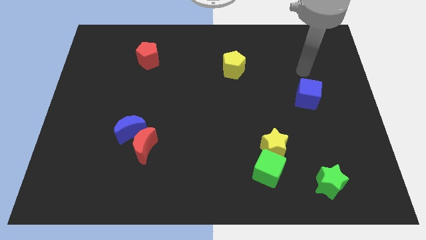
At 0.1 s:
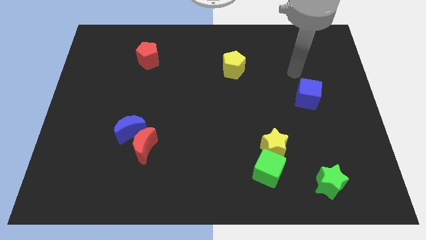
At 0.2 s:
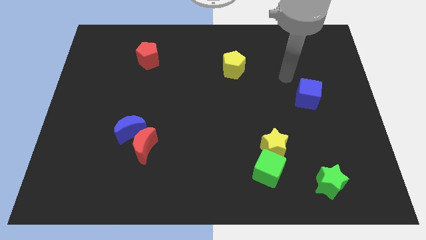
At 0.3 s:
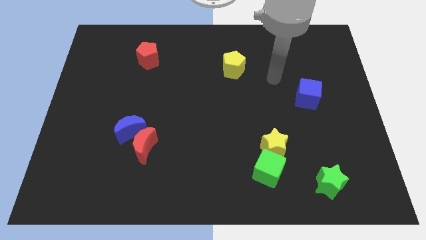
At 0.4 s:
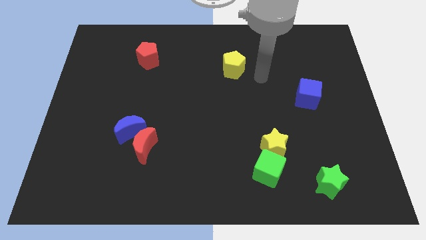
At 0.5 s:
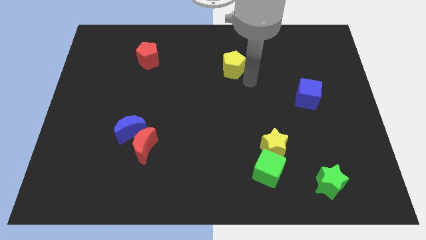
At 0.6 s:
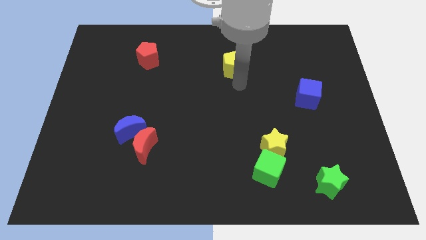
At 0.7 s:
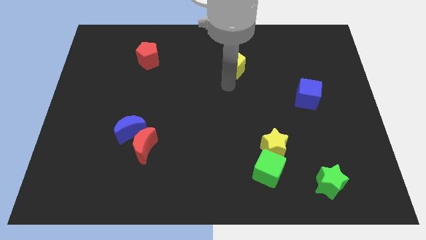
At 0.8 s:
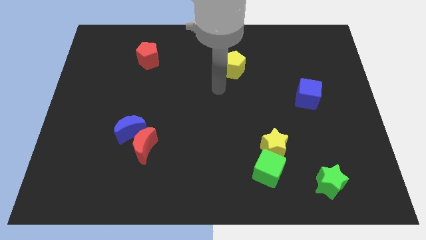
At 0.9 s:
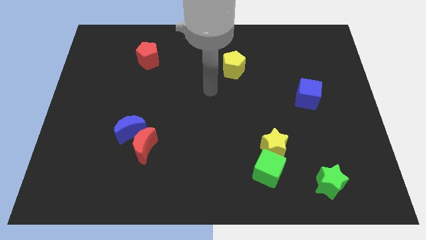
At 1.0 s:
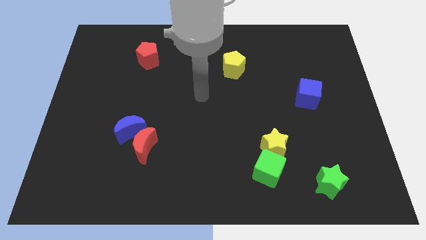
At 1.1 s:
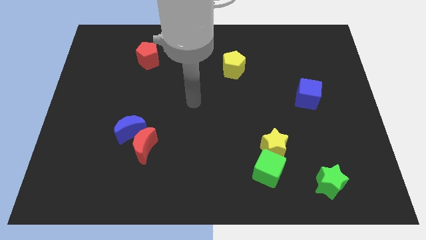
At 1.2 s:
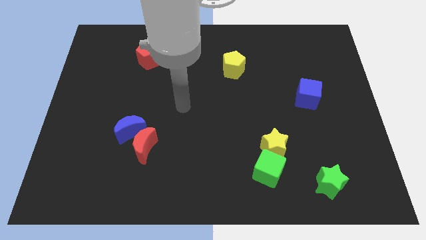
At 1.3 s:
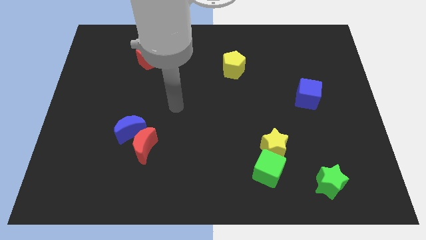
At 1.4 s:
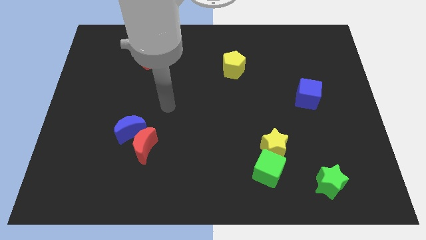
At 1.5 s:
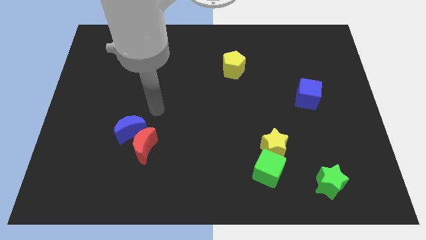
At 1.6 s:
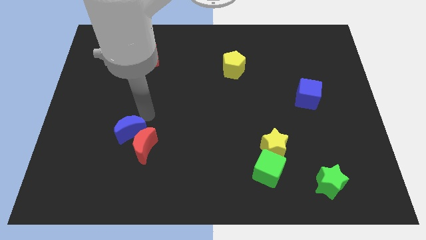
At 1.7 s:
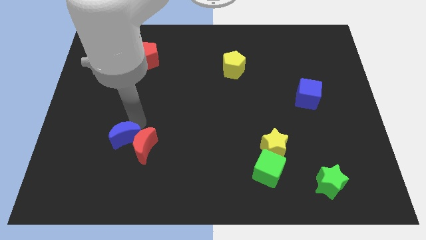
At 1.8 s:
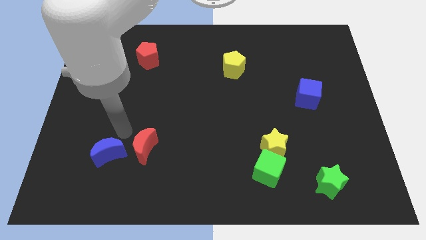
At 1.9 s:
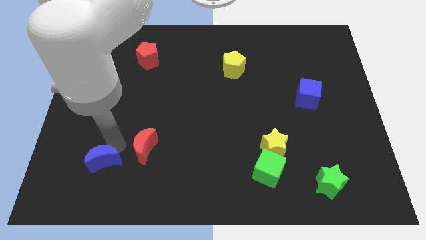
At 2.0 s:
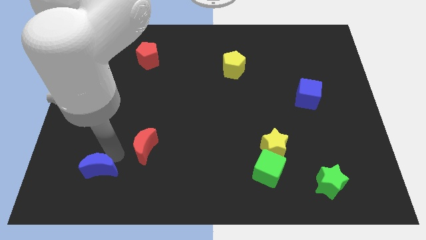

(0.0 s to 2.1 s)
pull the red moon apart from the blue moon

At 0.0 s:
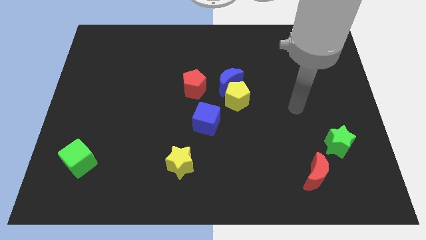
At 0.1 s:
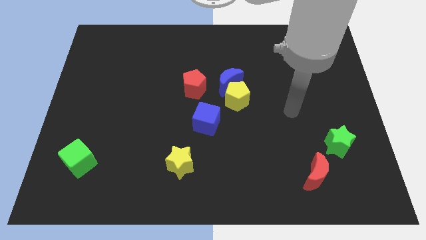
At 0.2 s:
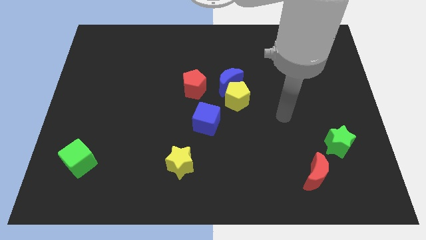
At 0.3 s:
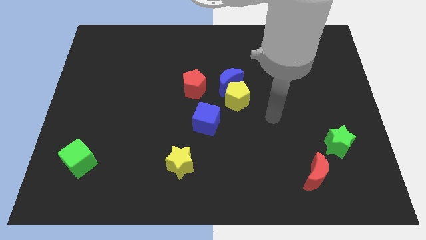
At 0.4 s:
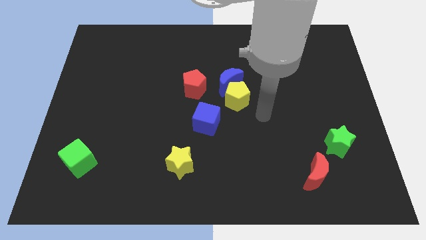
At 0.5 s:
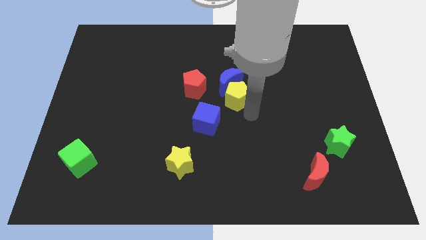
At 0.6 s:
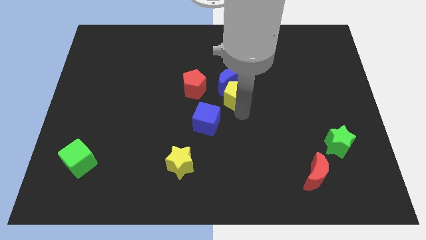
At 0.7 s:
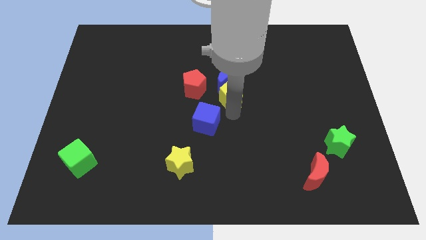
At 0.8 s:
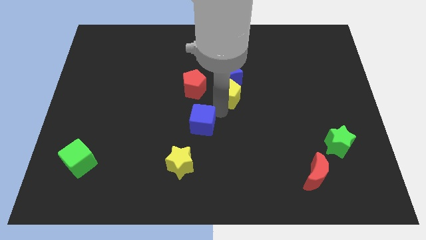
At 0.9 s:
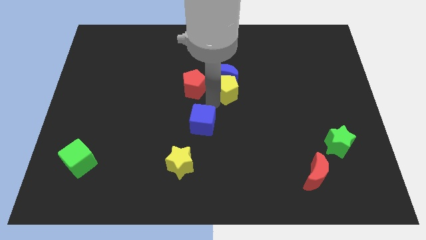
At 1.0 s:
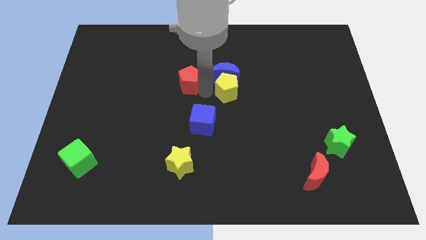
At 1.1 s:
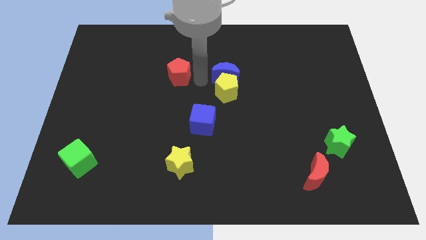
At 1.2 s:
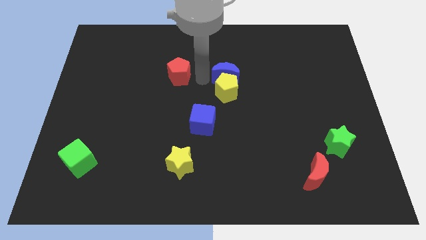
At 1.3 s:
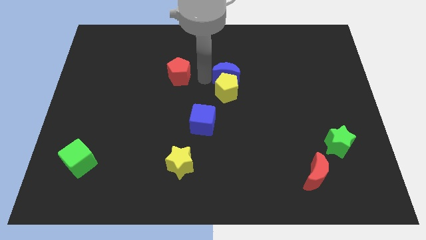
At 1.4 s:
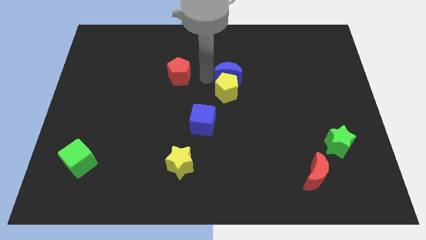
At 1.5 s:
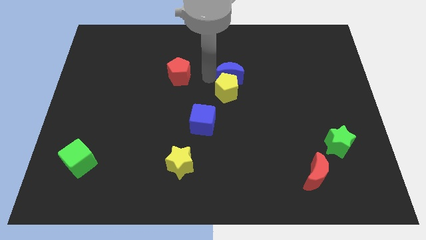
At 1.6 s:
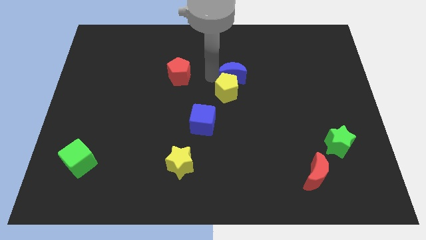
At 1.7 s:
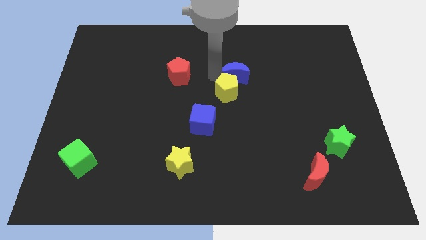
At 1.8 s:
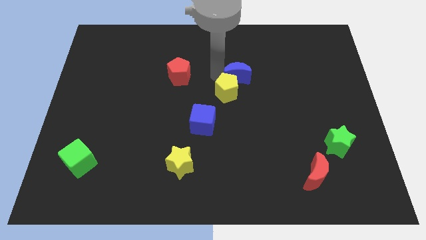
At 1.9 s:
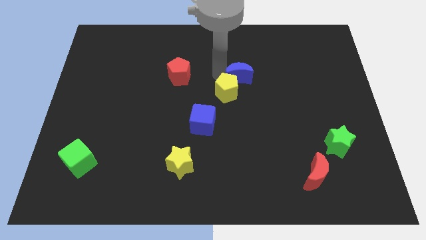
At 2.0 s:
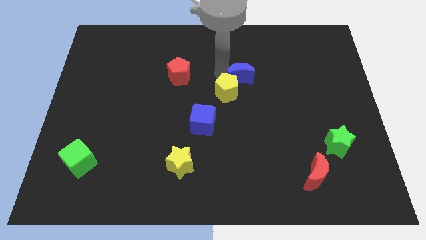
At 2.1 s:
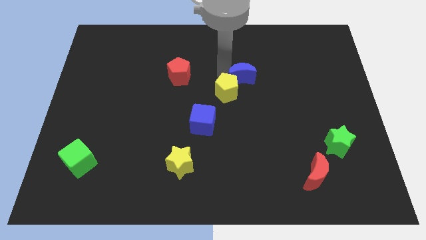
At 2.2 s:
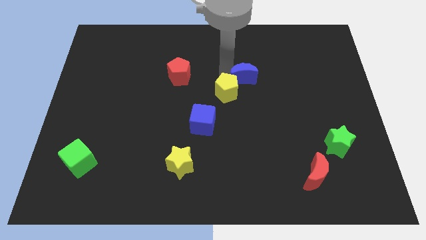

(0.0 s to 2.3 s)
separate the blue moon from the yellow pentagon and red pentagon

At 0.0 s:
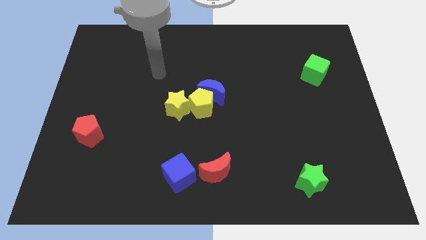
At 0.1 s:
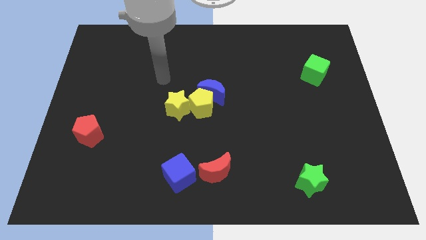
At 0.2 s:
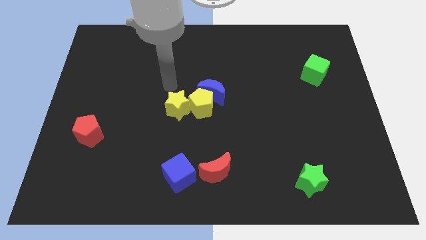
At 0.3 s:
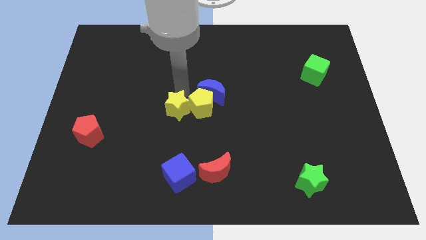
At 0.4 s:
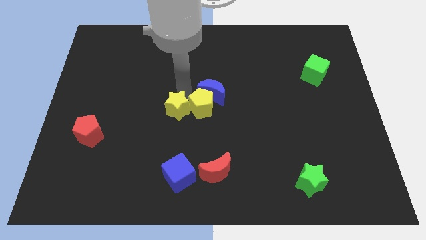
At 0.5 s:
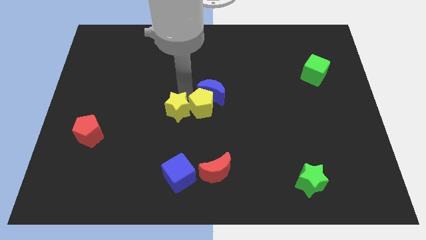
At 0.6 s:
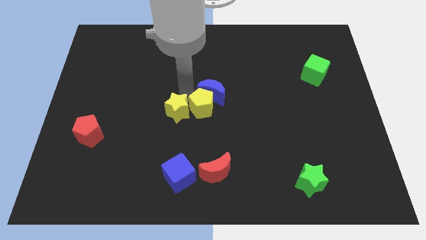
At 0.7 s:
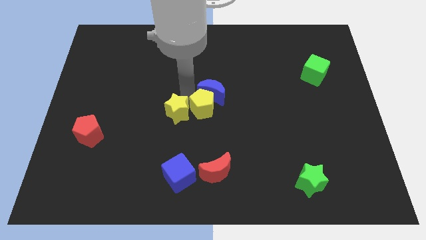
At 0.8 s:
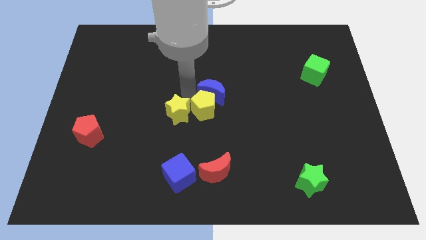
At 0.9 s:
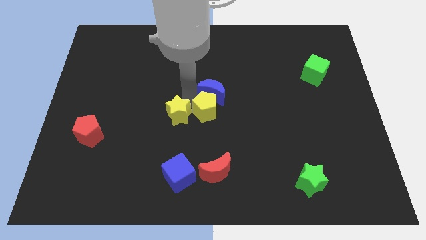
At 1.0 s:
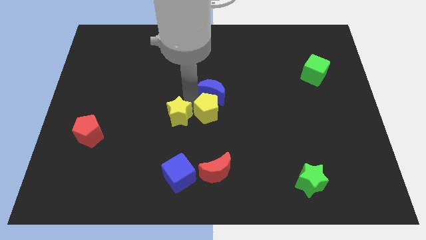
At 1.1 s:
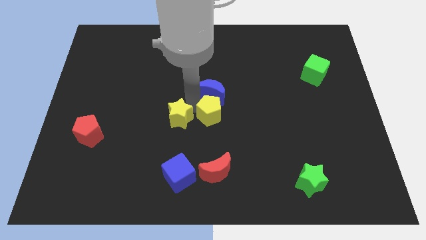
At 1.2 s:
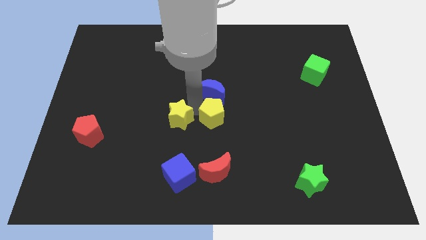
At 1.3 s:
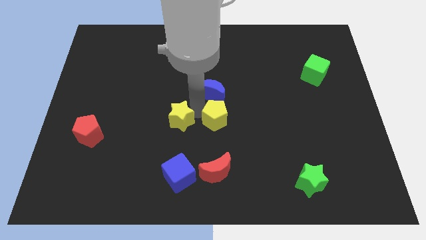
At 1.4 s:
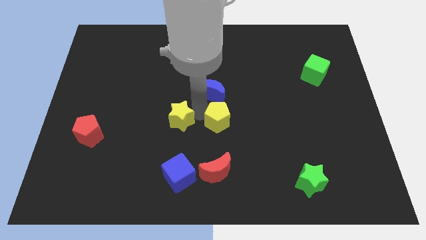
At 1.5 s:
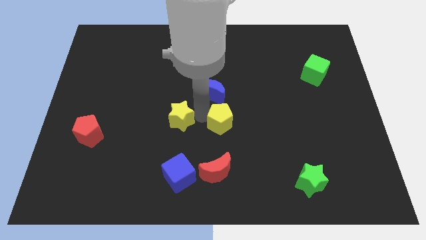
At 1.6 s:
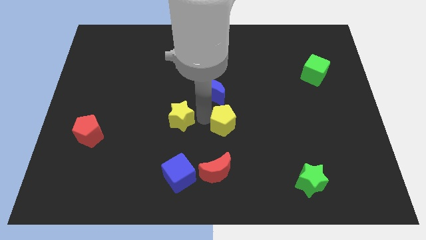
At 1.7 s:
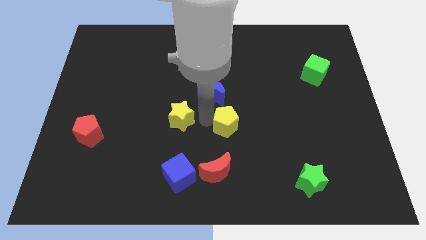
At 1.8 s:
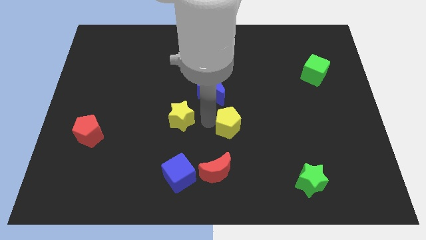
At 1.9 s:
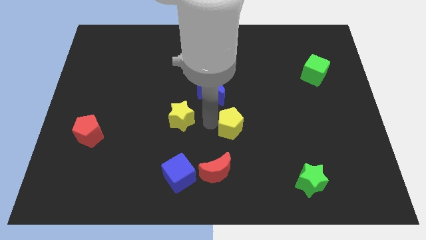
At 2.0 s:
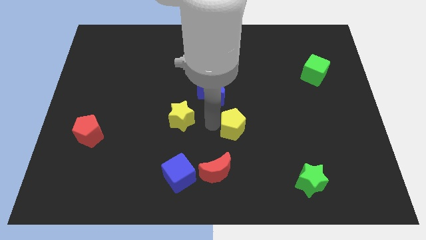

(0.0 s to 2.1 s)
move the yellow pentagon away from the blue moon and yellow star

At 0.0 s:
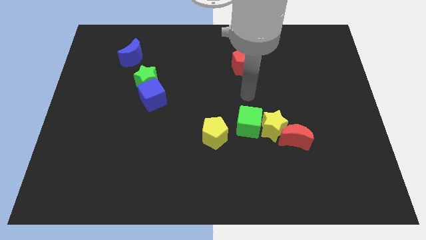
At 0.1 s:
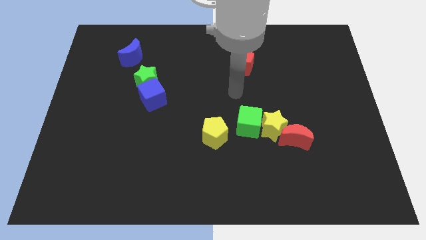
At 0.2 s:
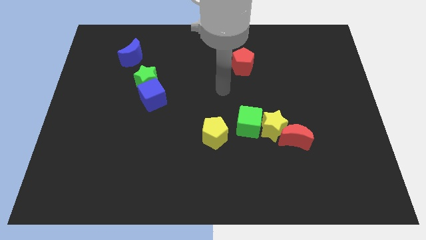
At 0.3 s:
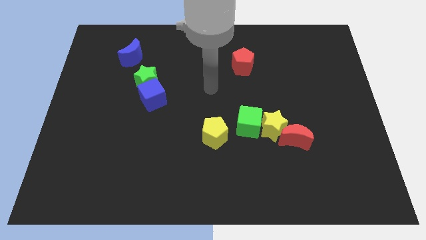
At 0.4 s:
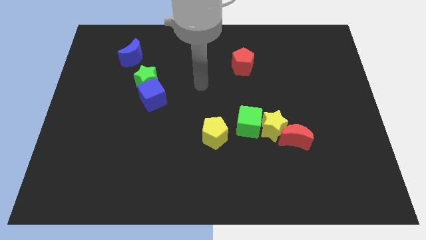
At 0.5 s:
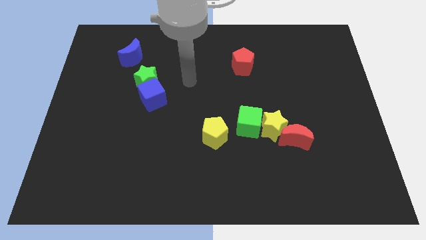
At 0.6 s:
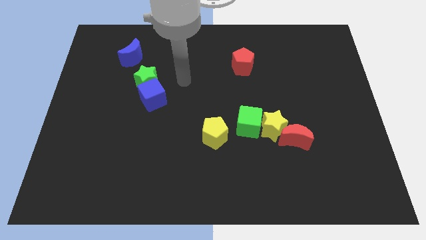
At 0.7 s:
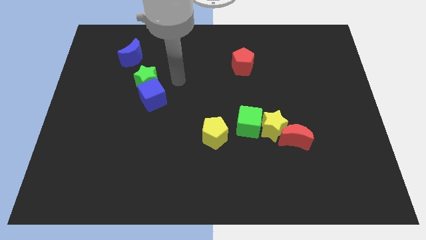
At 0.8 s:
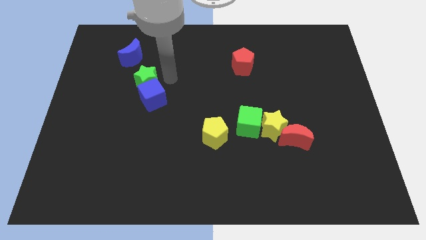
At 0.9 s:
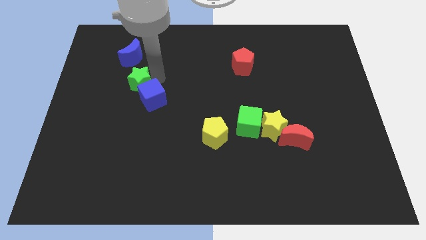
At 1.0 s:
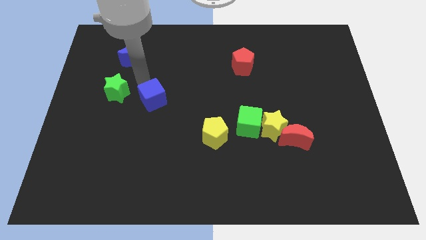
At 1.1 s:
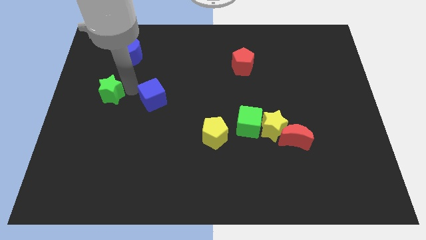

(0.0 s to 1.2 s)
move the blue cube away from the green star

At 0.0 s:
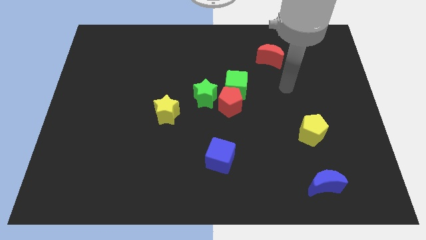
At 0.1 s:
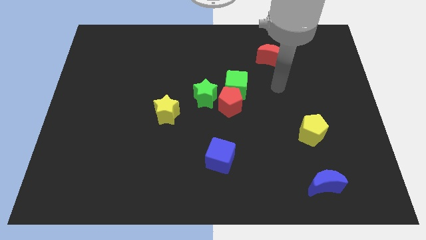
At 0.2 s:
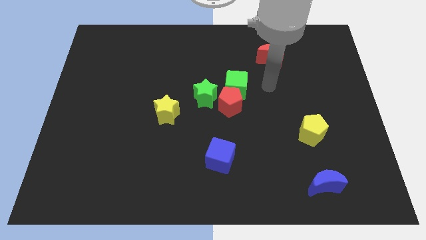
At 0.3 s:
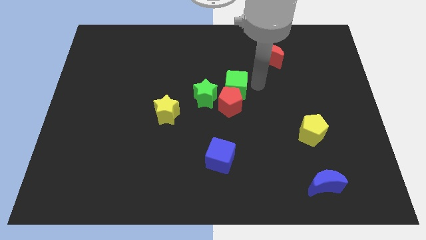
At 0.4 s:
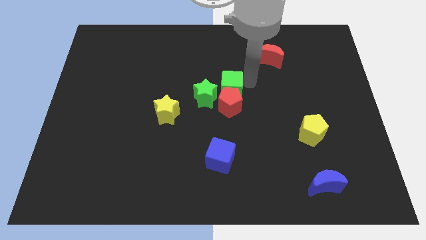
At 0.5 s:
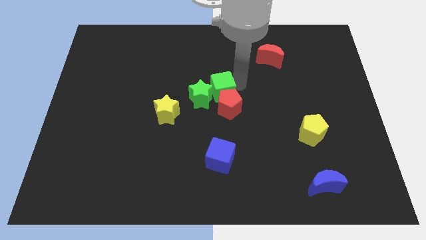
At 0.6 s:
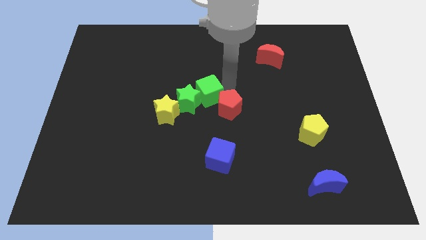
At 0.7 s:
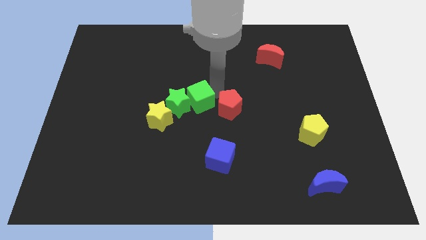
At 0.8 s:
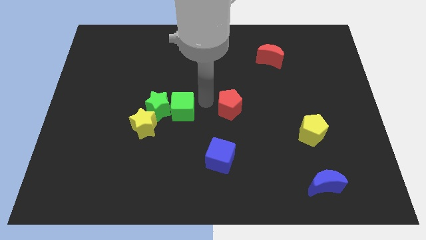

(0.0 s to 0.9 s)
pull the red pentagon apart from the green cube and green star

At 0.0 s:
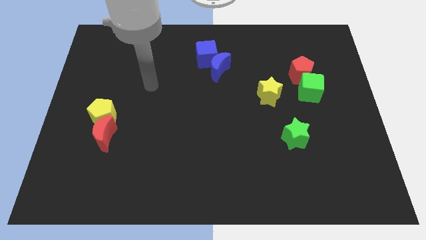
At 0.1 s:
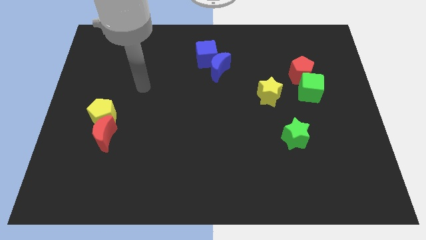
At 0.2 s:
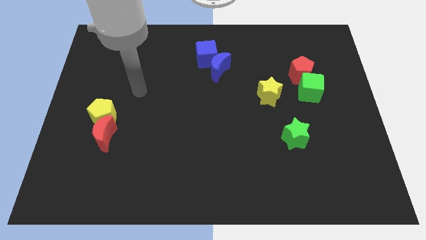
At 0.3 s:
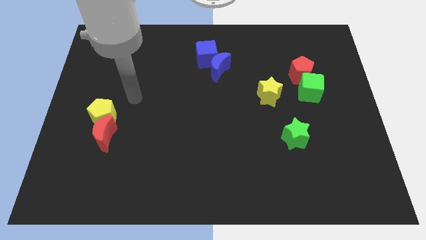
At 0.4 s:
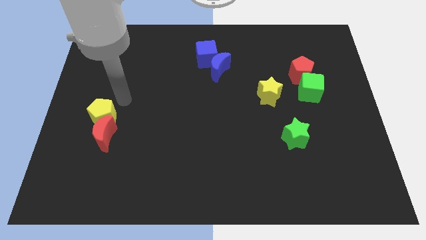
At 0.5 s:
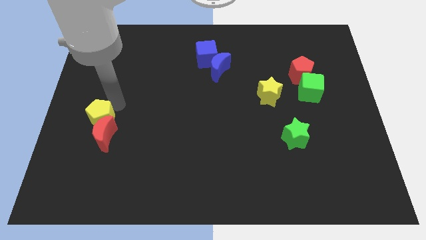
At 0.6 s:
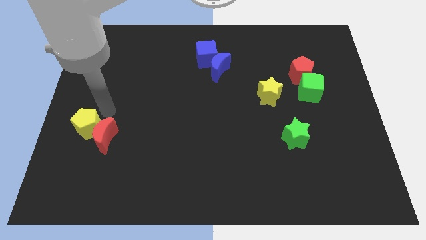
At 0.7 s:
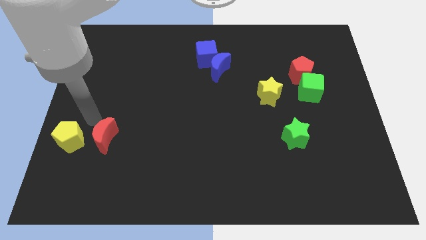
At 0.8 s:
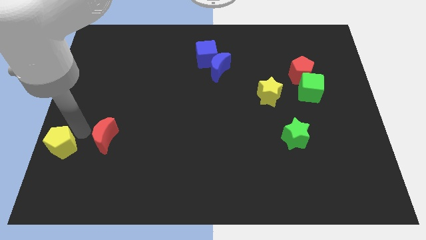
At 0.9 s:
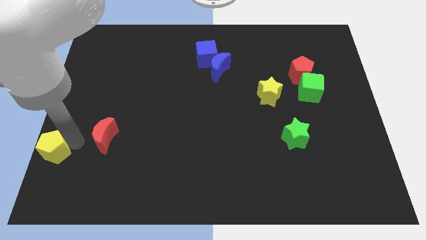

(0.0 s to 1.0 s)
separate the red moon from the yellow pentagon
